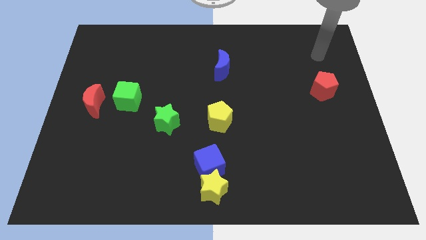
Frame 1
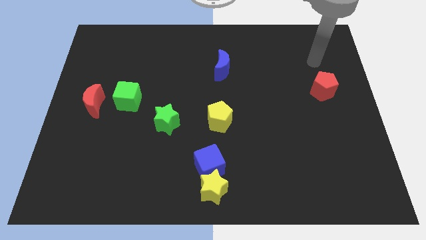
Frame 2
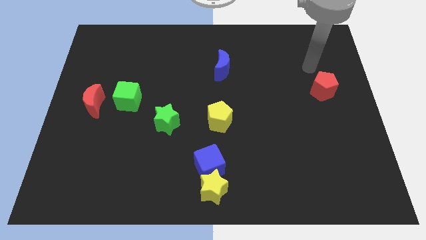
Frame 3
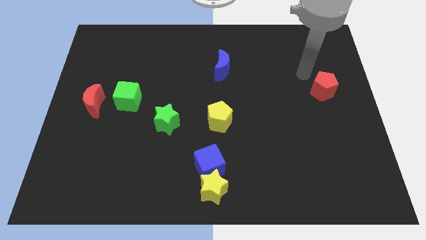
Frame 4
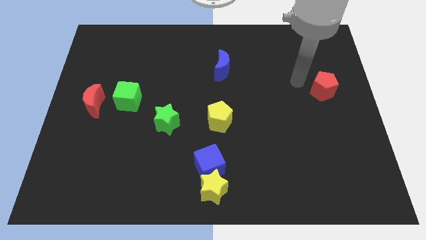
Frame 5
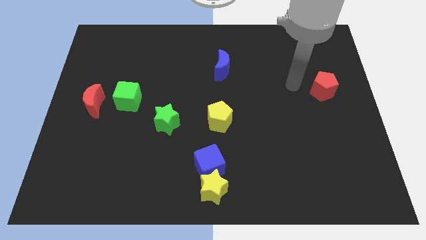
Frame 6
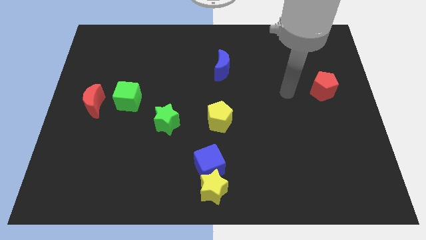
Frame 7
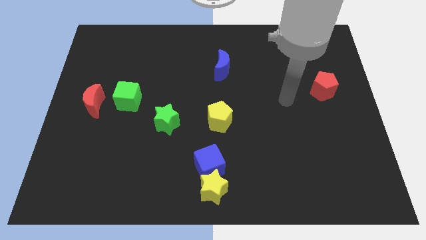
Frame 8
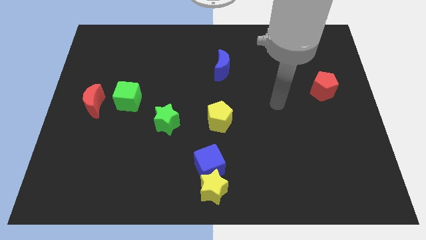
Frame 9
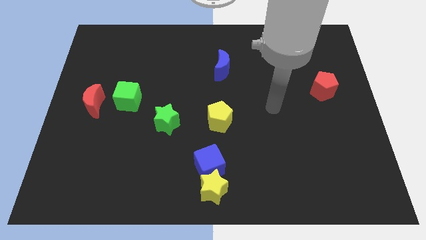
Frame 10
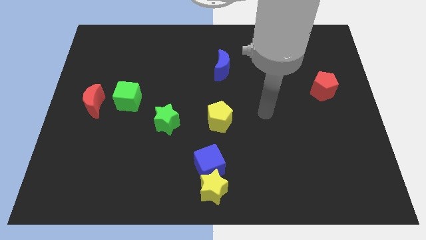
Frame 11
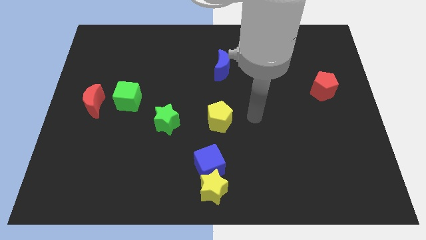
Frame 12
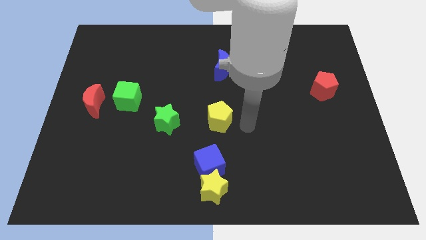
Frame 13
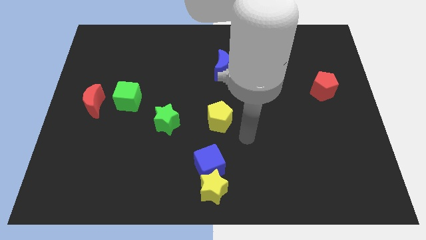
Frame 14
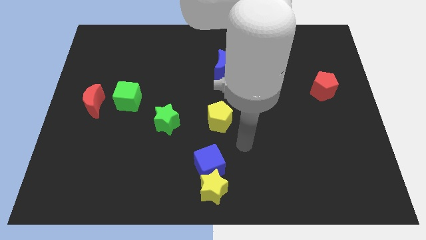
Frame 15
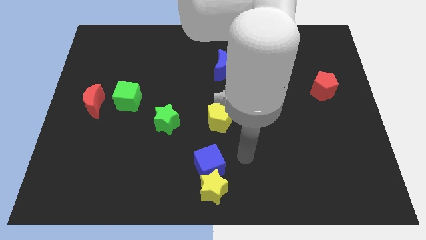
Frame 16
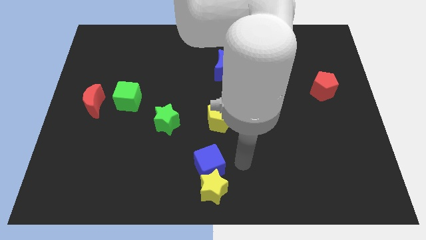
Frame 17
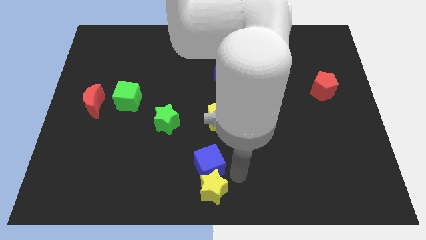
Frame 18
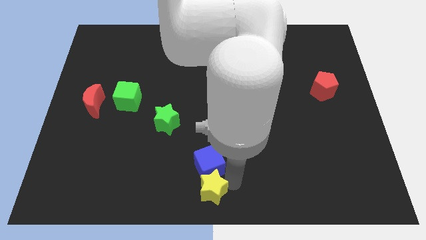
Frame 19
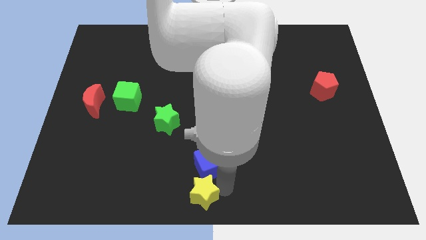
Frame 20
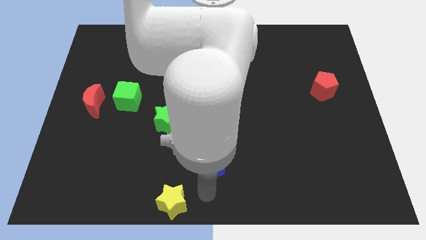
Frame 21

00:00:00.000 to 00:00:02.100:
pull the blue cube apart from the yellow star

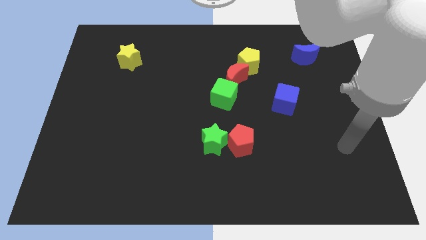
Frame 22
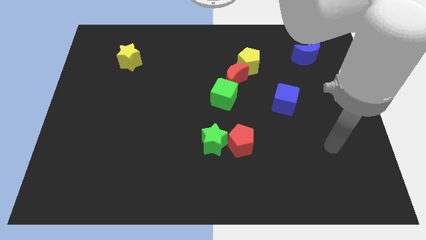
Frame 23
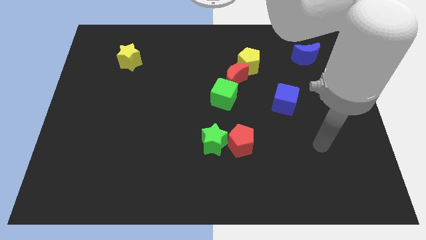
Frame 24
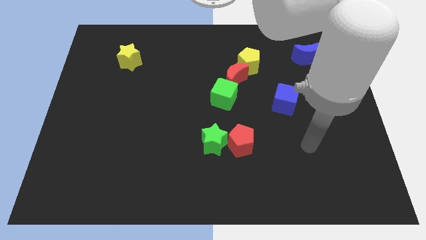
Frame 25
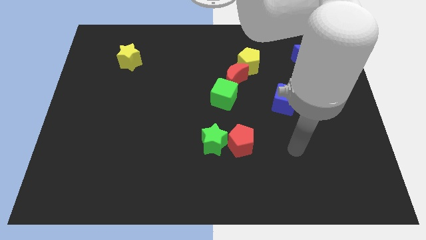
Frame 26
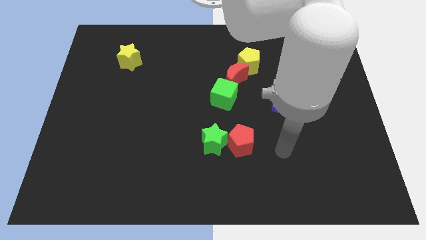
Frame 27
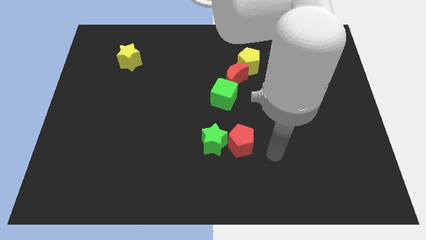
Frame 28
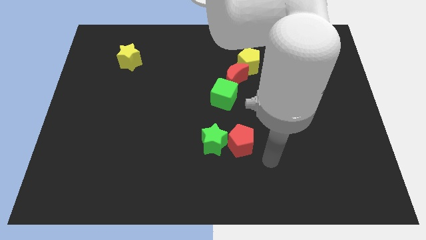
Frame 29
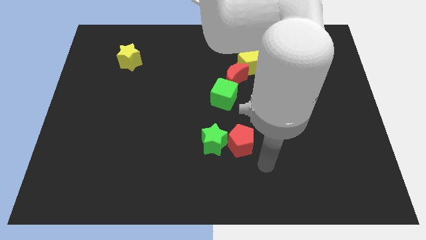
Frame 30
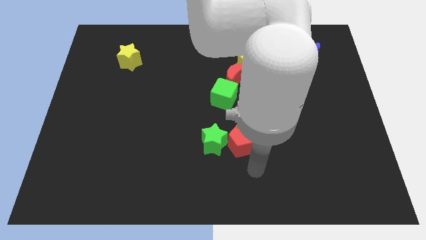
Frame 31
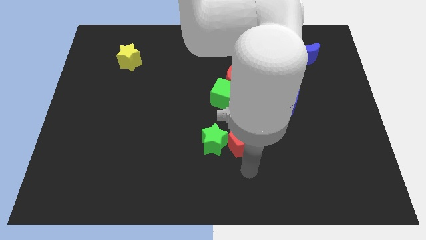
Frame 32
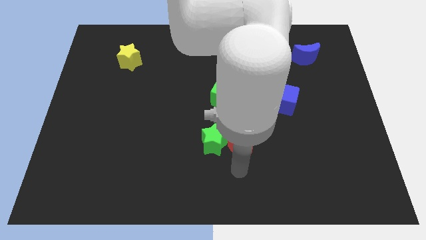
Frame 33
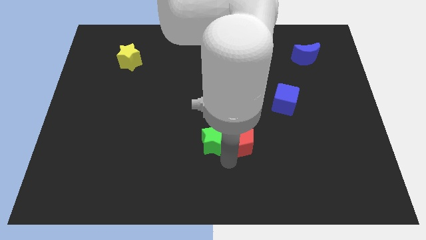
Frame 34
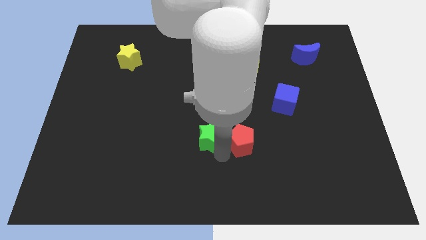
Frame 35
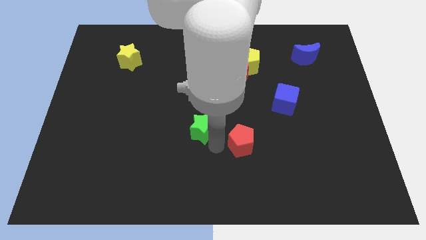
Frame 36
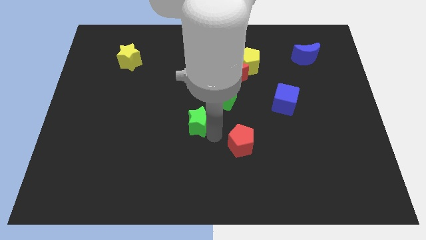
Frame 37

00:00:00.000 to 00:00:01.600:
pull the red pentagon apart from the green star

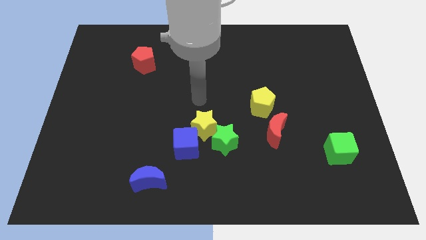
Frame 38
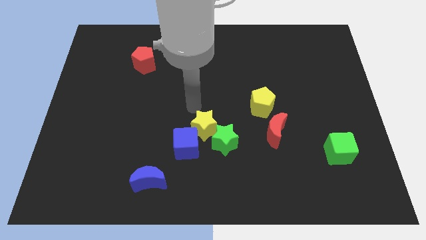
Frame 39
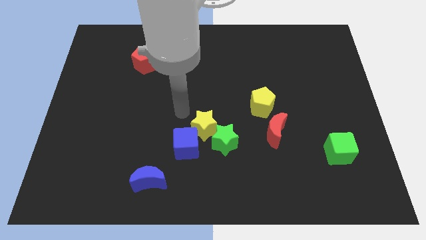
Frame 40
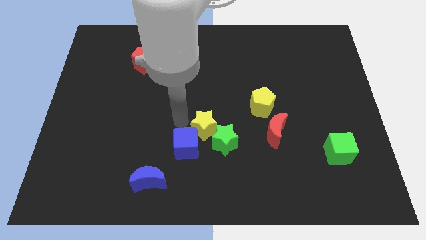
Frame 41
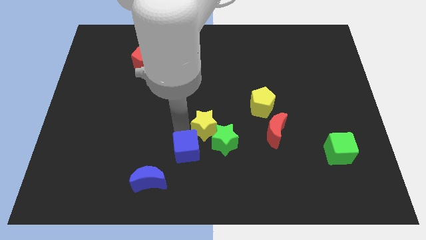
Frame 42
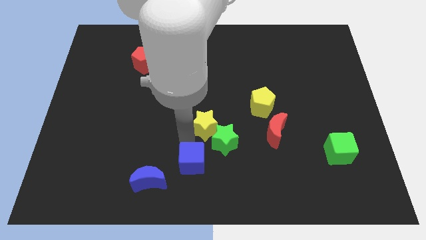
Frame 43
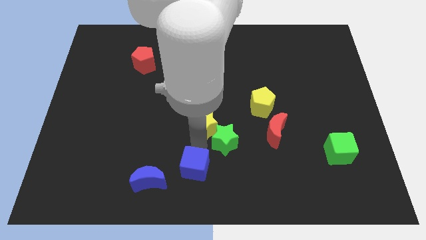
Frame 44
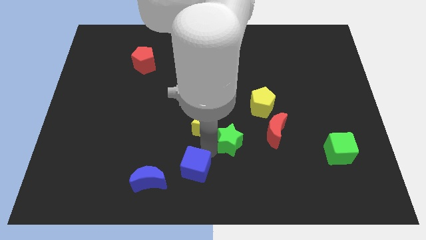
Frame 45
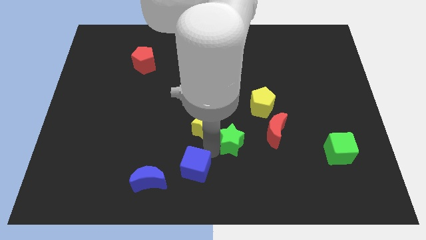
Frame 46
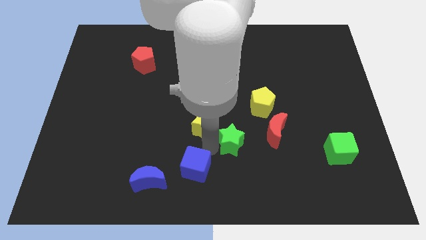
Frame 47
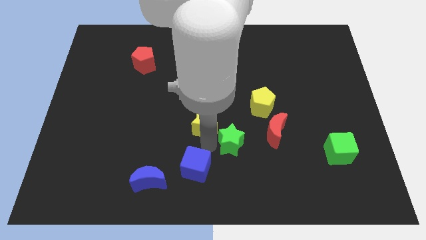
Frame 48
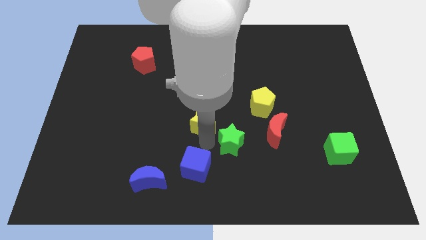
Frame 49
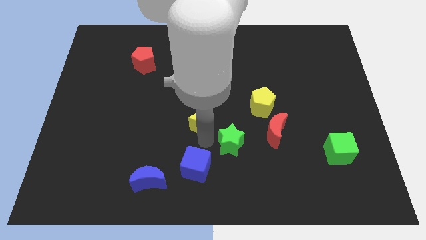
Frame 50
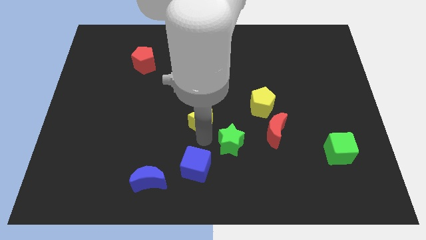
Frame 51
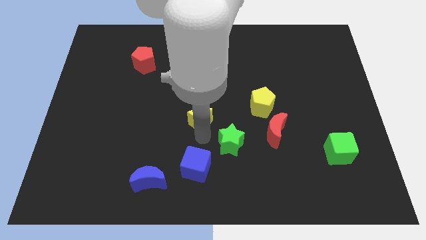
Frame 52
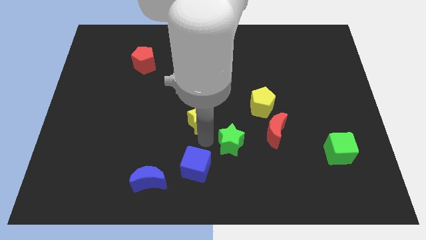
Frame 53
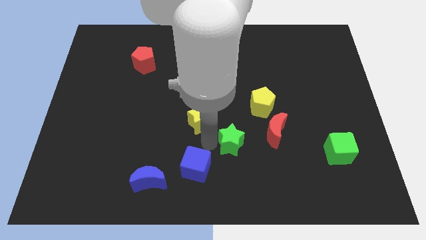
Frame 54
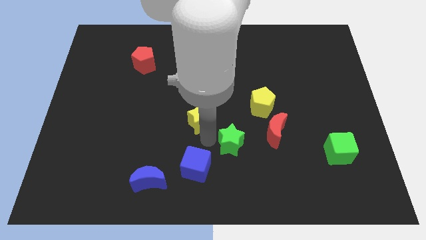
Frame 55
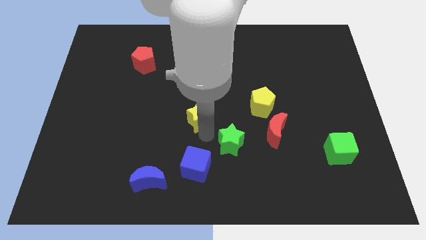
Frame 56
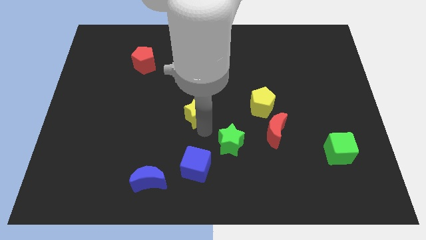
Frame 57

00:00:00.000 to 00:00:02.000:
pull the yellow star apart from the green star and blue cube

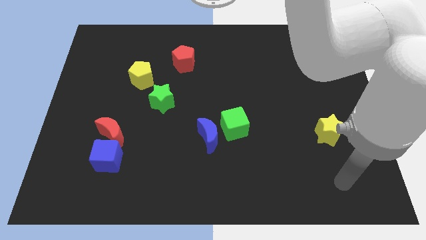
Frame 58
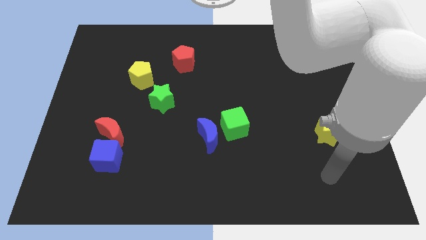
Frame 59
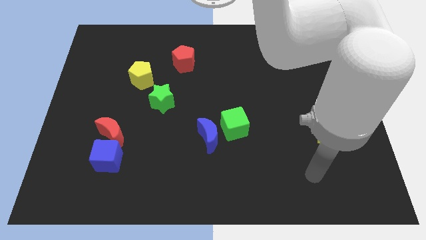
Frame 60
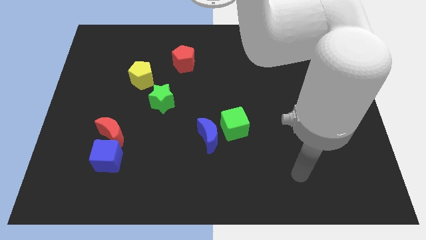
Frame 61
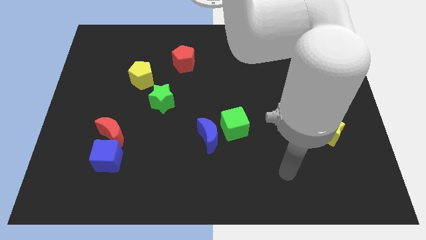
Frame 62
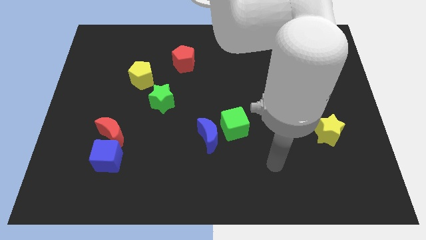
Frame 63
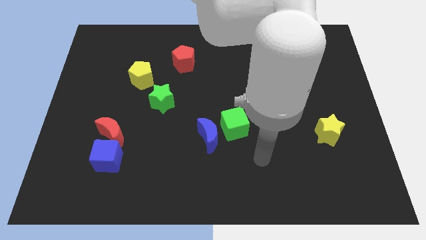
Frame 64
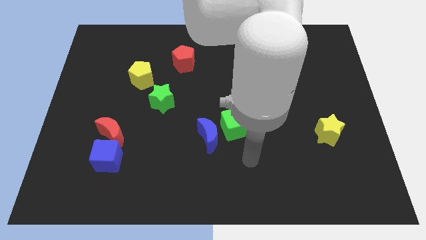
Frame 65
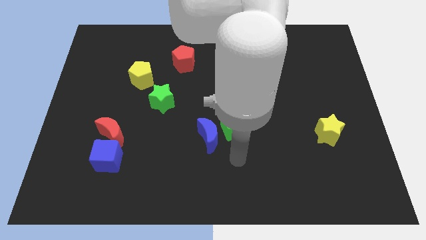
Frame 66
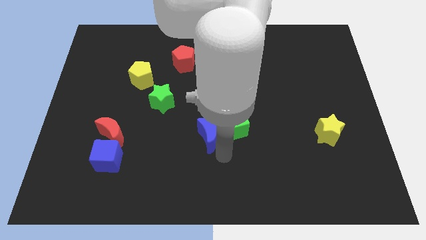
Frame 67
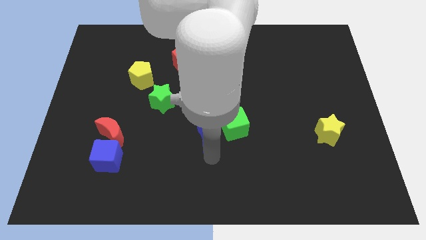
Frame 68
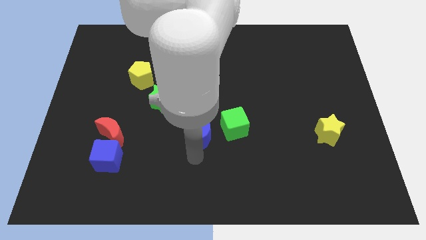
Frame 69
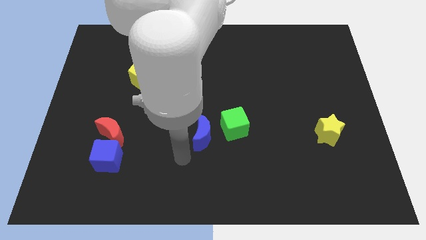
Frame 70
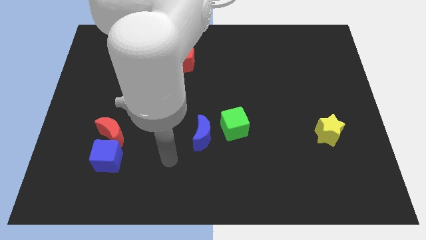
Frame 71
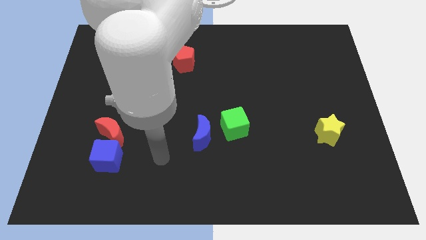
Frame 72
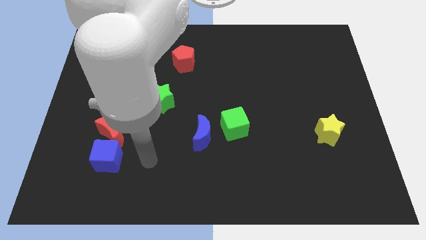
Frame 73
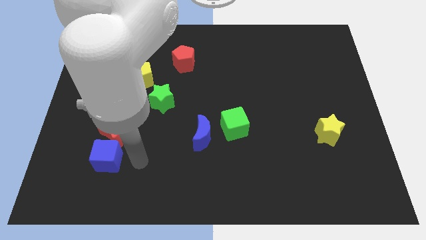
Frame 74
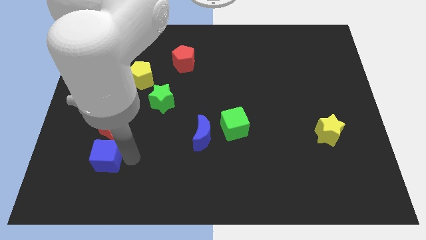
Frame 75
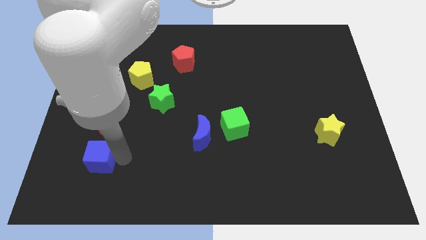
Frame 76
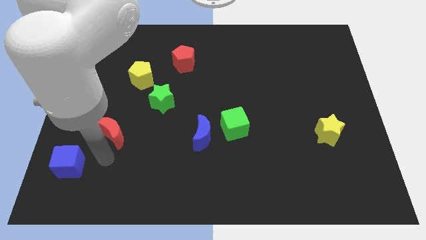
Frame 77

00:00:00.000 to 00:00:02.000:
move the red moon away from the blue cube

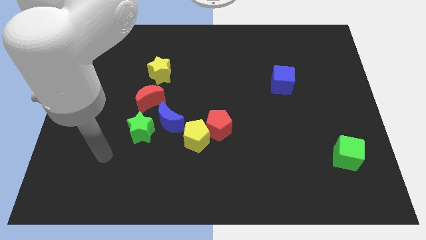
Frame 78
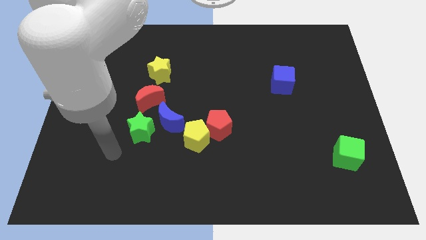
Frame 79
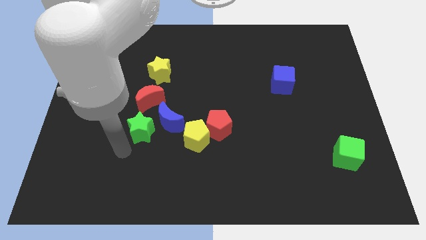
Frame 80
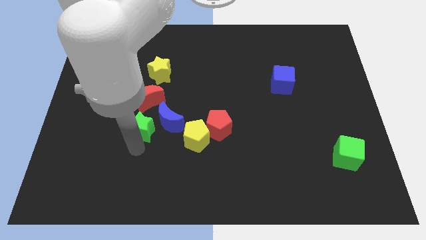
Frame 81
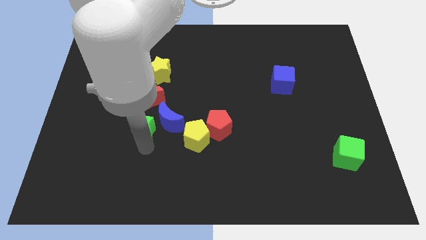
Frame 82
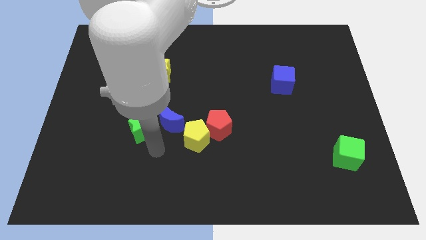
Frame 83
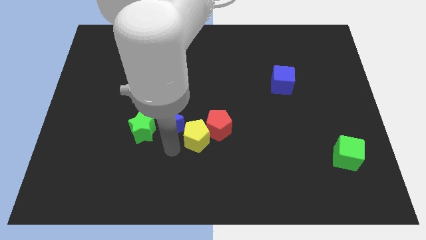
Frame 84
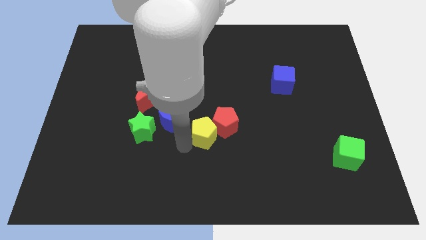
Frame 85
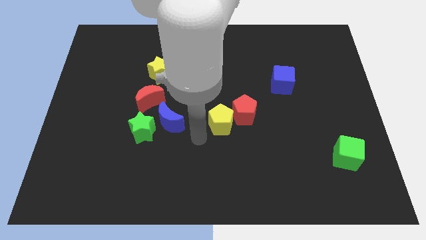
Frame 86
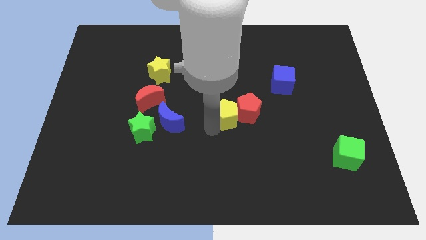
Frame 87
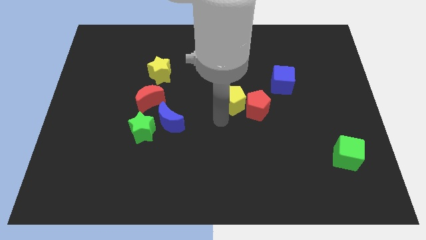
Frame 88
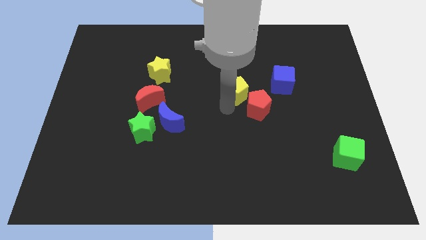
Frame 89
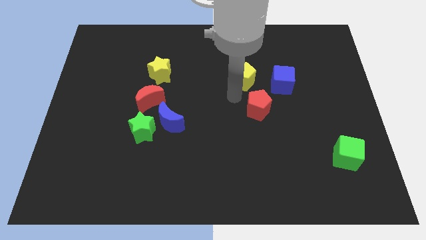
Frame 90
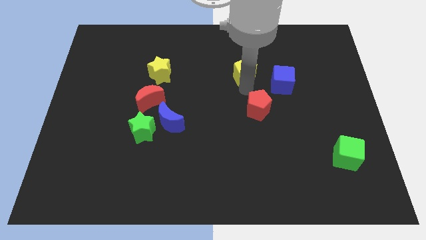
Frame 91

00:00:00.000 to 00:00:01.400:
move the red pentagon away from the yellow pentagon
